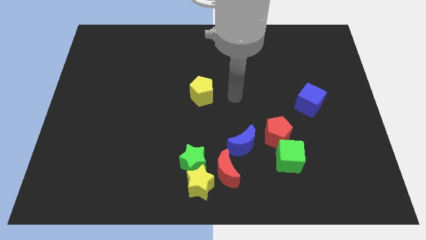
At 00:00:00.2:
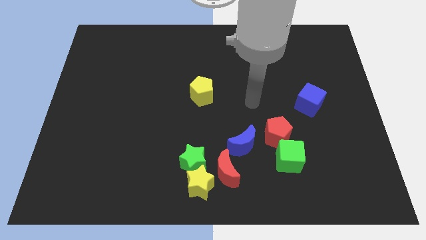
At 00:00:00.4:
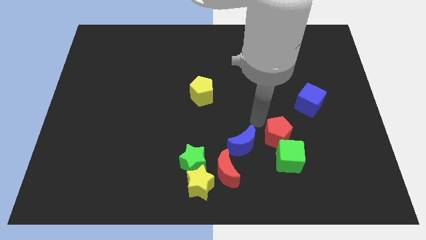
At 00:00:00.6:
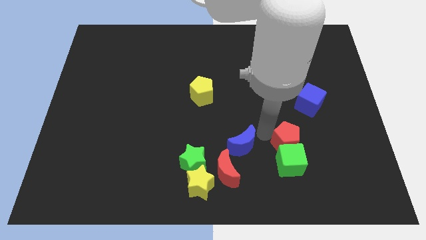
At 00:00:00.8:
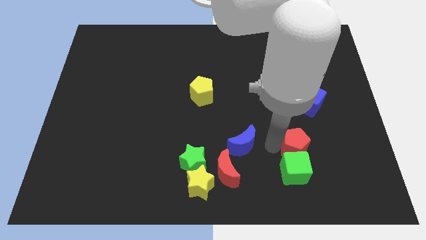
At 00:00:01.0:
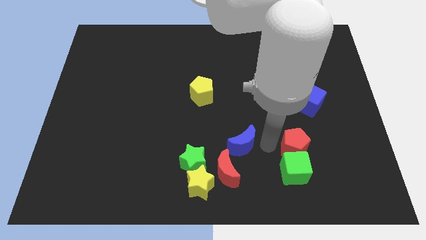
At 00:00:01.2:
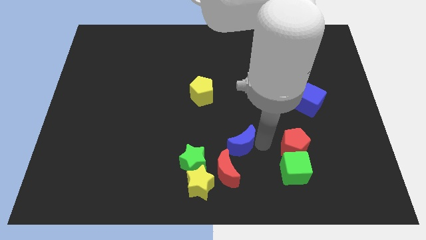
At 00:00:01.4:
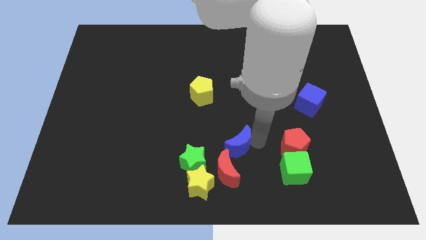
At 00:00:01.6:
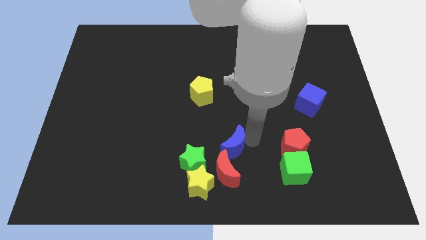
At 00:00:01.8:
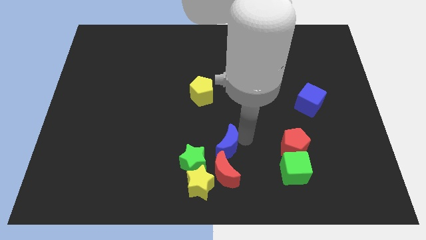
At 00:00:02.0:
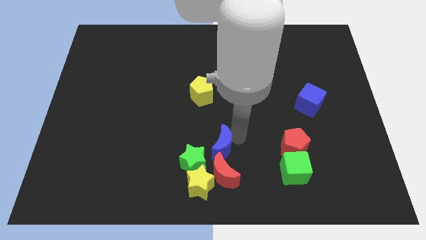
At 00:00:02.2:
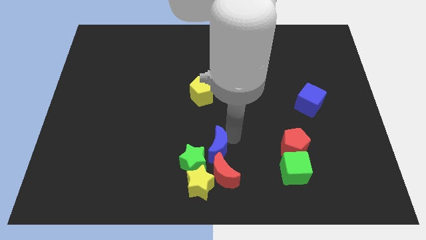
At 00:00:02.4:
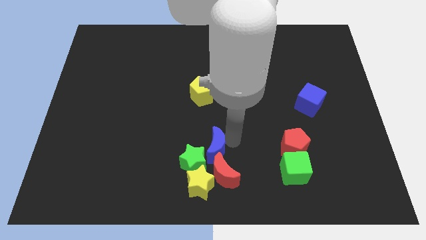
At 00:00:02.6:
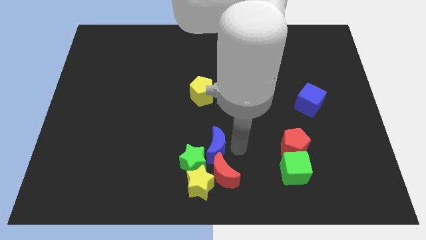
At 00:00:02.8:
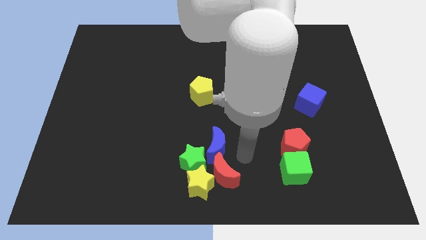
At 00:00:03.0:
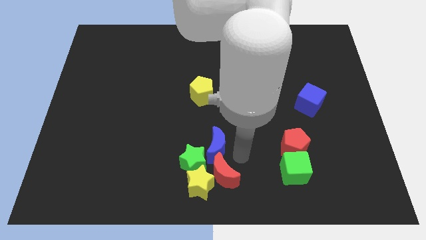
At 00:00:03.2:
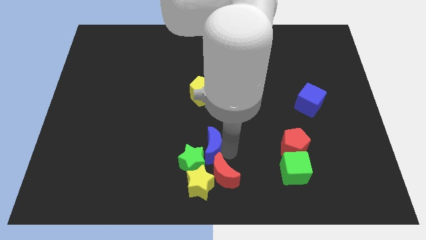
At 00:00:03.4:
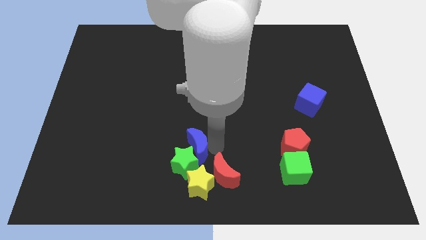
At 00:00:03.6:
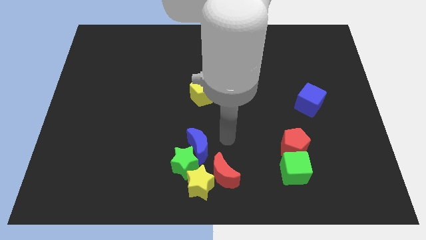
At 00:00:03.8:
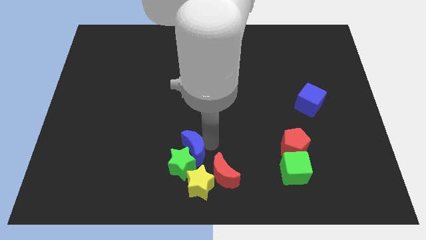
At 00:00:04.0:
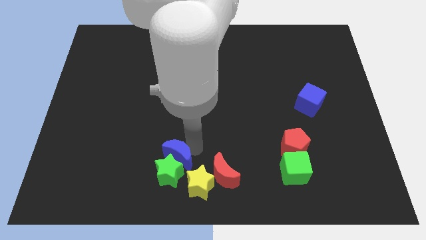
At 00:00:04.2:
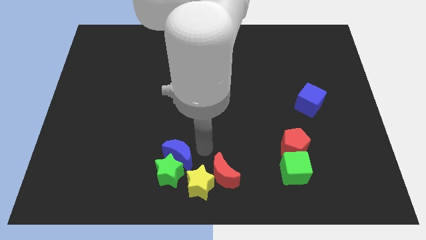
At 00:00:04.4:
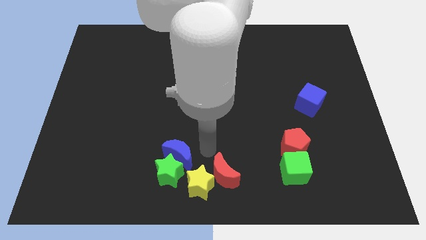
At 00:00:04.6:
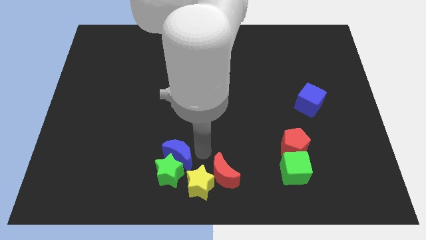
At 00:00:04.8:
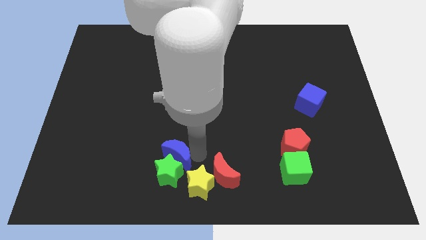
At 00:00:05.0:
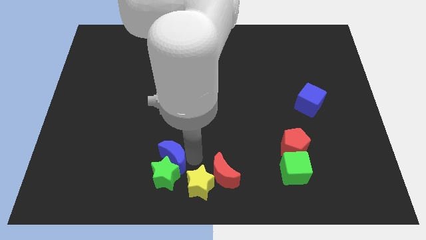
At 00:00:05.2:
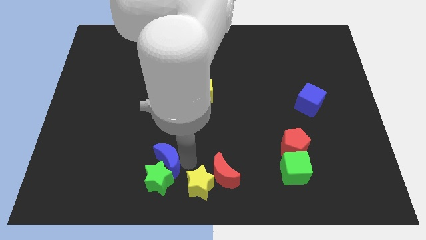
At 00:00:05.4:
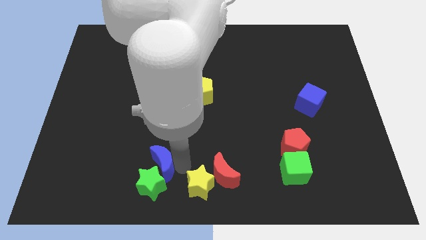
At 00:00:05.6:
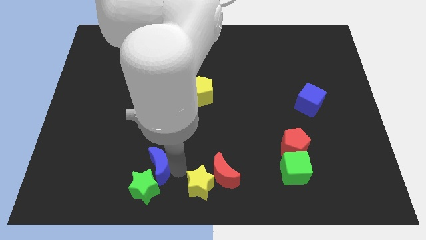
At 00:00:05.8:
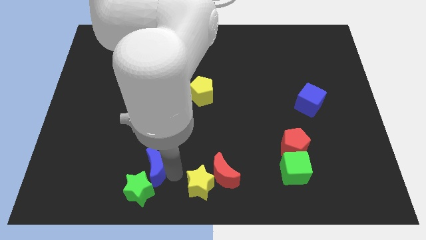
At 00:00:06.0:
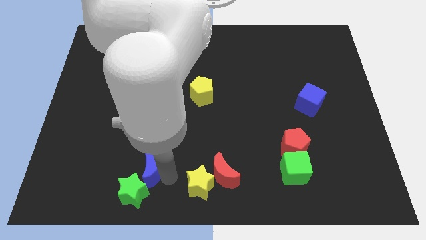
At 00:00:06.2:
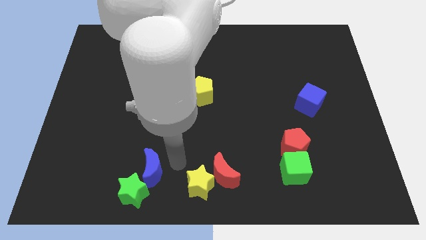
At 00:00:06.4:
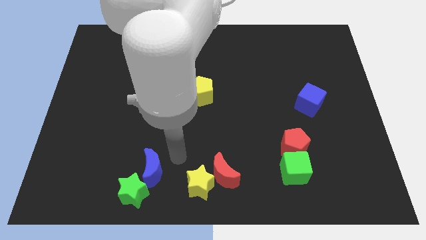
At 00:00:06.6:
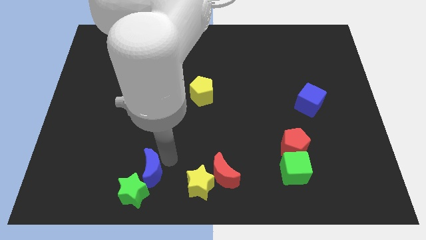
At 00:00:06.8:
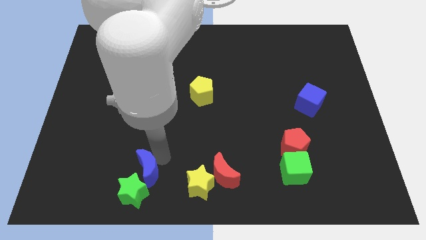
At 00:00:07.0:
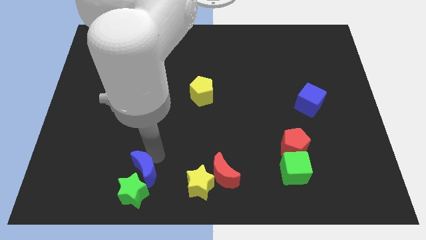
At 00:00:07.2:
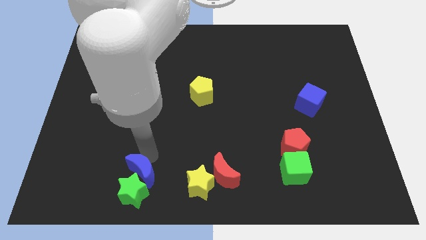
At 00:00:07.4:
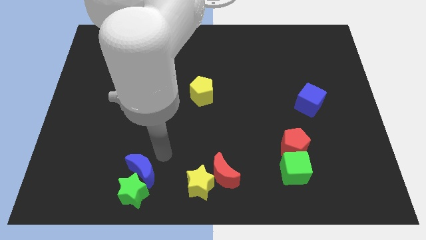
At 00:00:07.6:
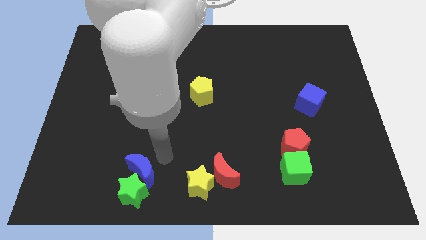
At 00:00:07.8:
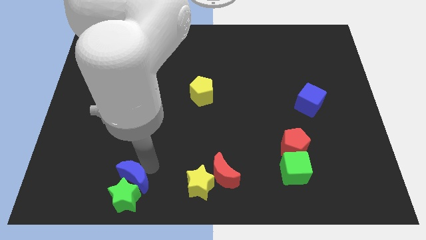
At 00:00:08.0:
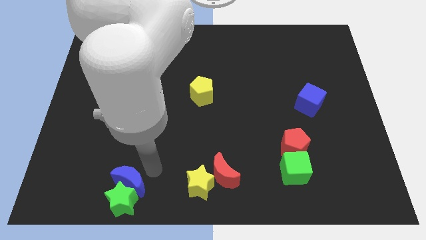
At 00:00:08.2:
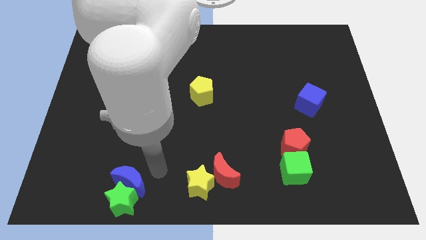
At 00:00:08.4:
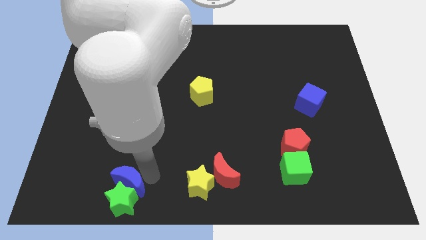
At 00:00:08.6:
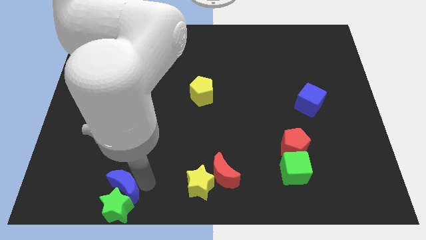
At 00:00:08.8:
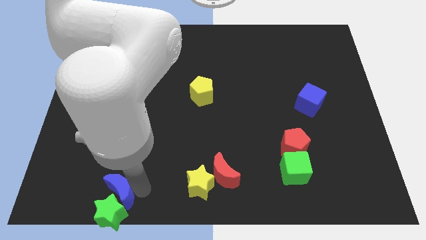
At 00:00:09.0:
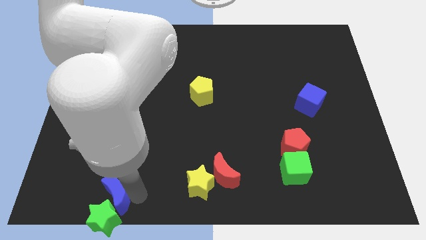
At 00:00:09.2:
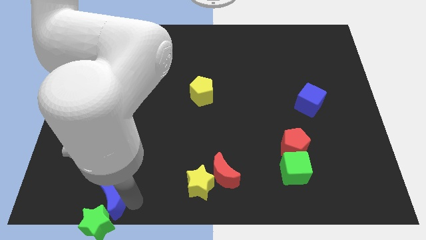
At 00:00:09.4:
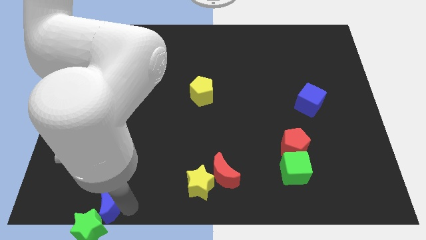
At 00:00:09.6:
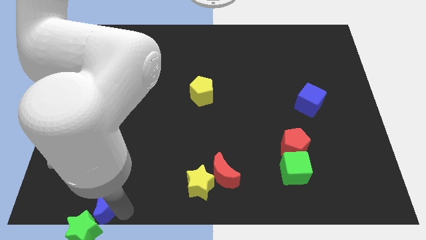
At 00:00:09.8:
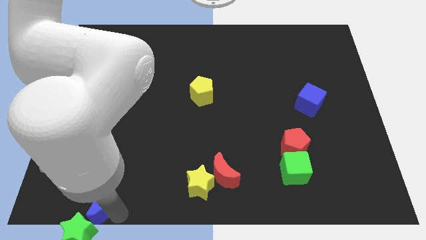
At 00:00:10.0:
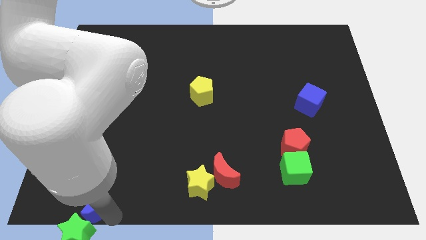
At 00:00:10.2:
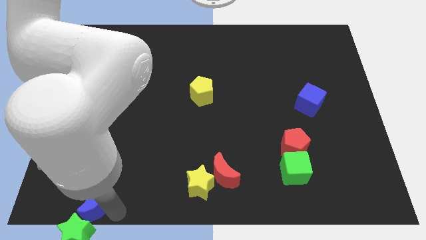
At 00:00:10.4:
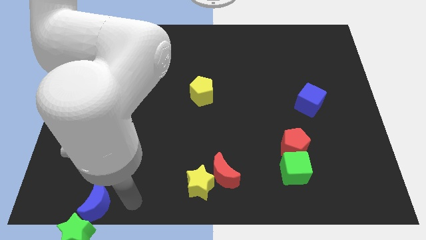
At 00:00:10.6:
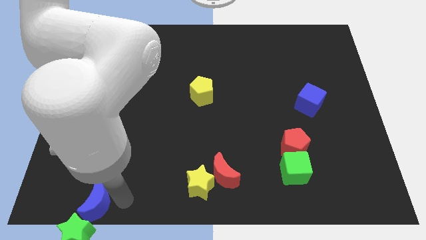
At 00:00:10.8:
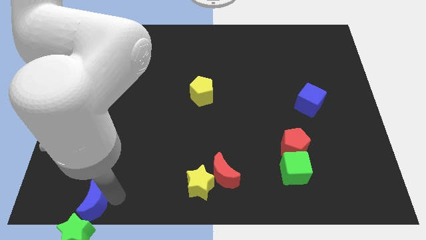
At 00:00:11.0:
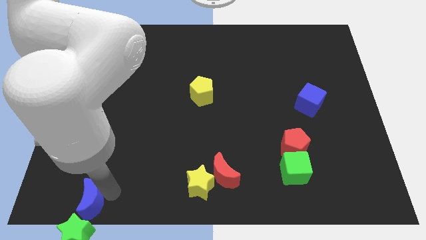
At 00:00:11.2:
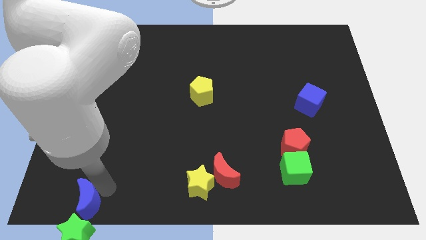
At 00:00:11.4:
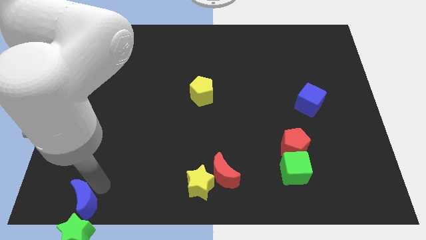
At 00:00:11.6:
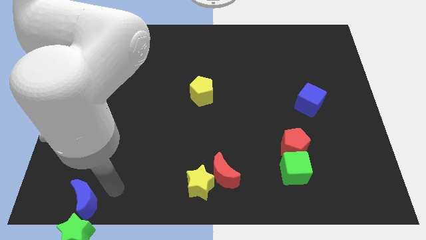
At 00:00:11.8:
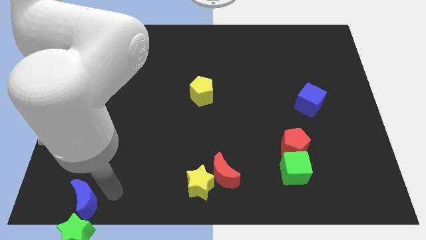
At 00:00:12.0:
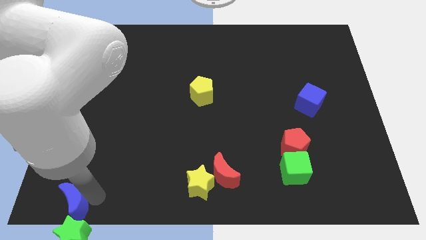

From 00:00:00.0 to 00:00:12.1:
push the blue moon to the bottom left corner
